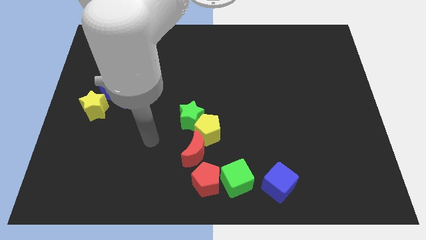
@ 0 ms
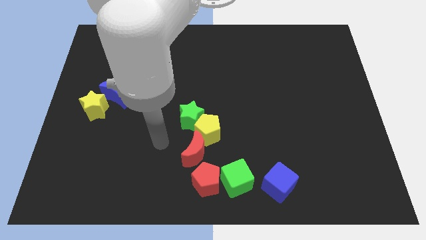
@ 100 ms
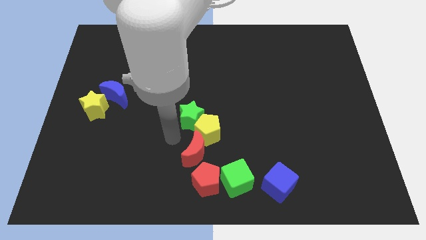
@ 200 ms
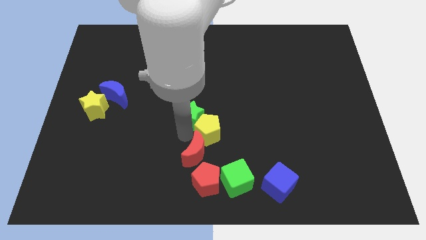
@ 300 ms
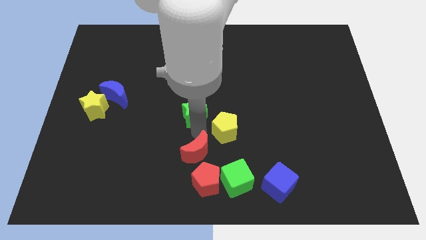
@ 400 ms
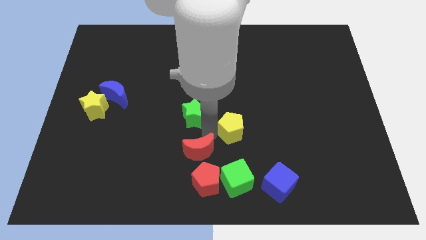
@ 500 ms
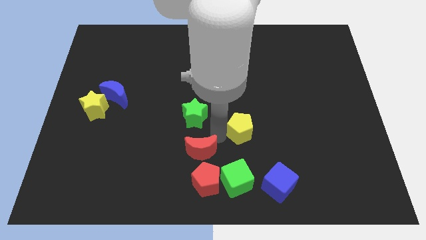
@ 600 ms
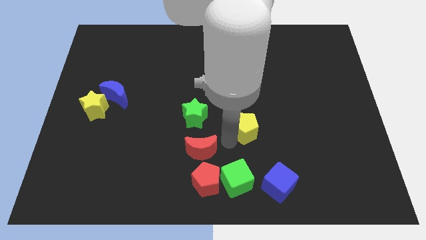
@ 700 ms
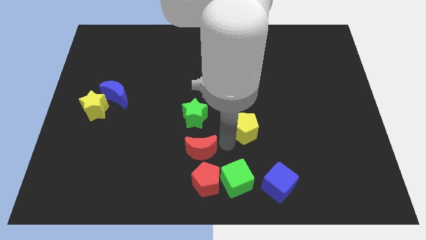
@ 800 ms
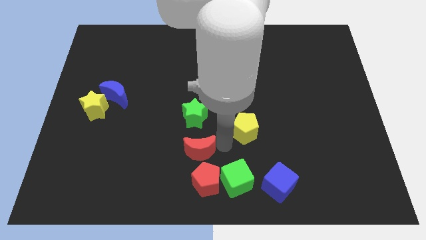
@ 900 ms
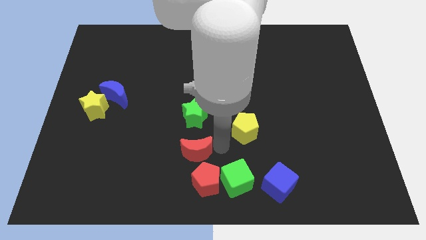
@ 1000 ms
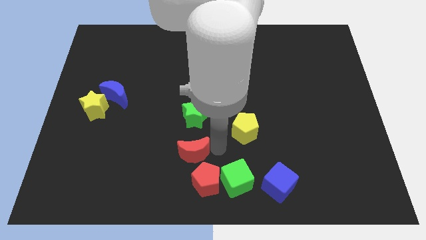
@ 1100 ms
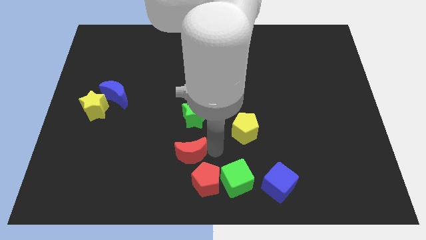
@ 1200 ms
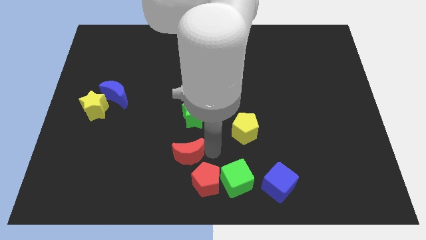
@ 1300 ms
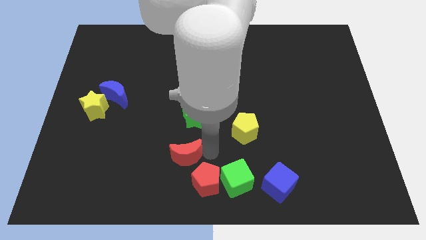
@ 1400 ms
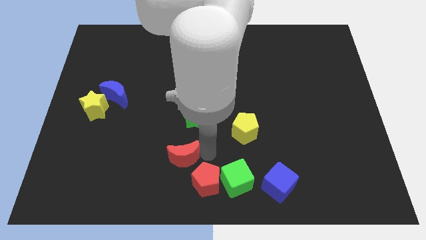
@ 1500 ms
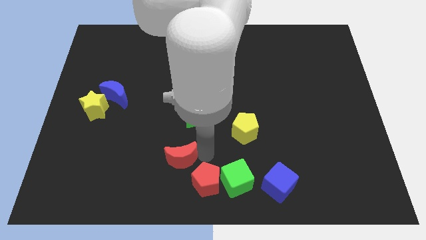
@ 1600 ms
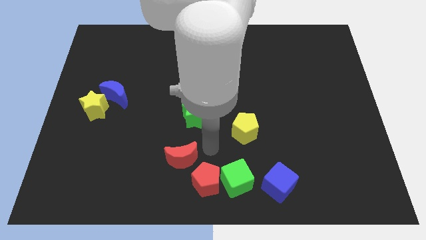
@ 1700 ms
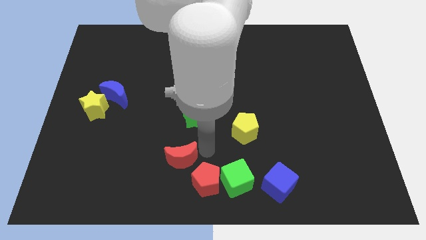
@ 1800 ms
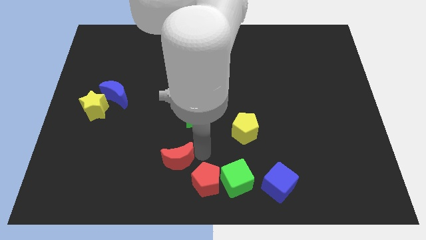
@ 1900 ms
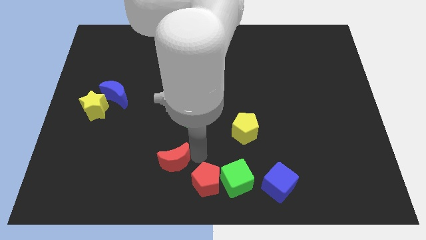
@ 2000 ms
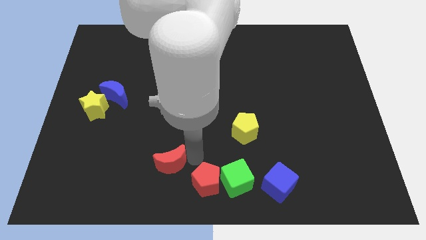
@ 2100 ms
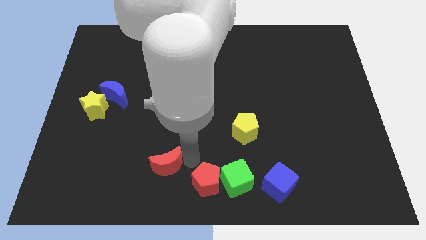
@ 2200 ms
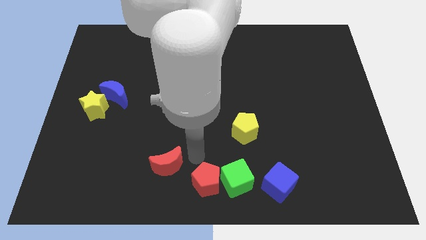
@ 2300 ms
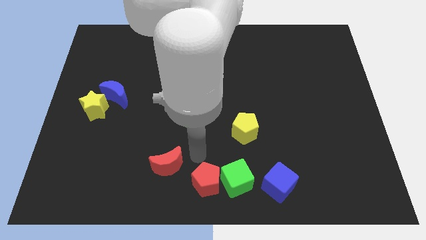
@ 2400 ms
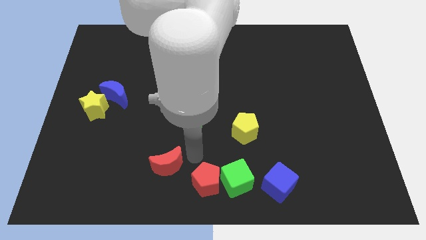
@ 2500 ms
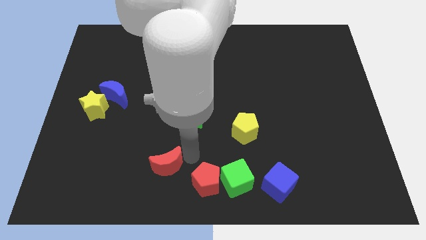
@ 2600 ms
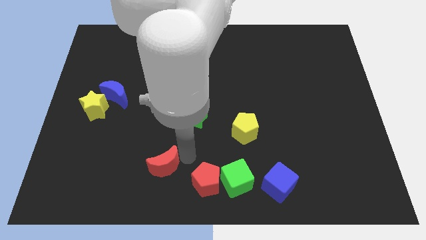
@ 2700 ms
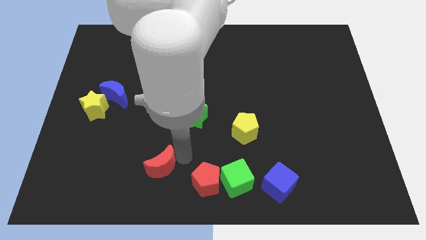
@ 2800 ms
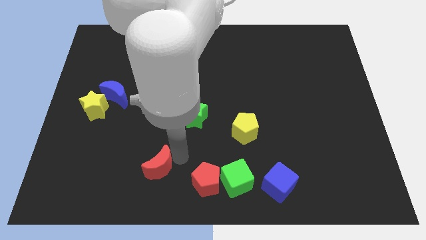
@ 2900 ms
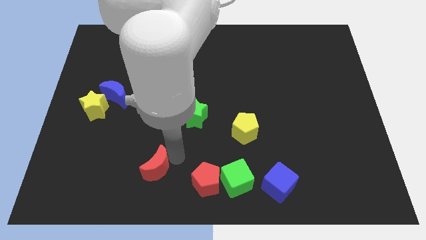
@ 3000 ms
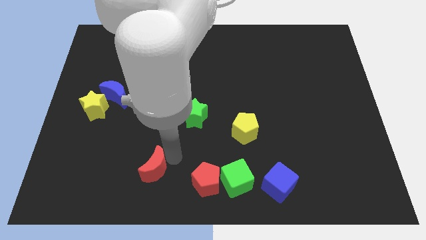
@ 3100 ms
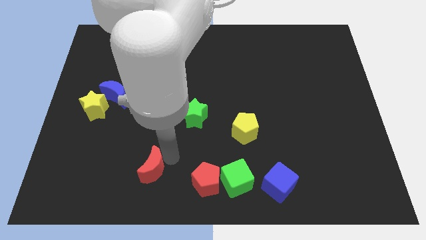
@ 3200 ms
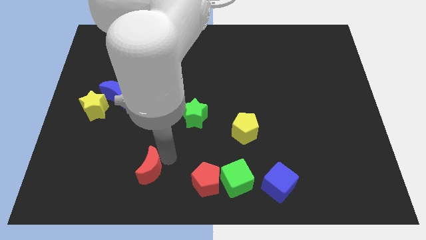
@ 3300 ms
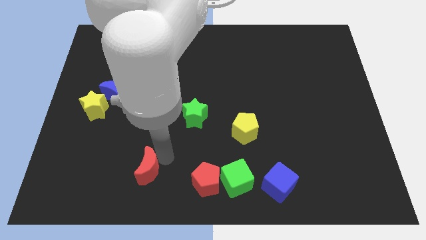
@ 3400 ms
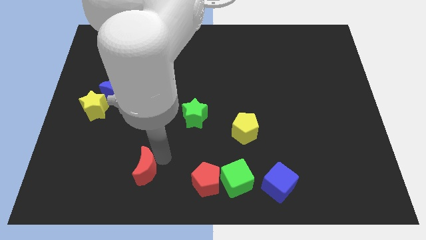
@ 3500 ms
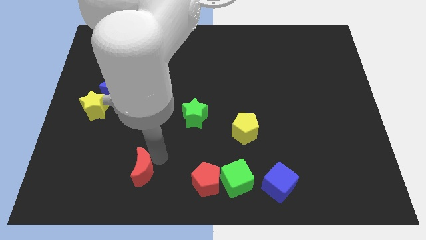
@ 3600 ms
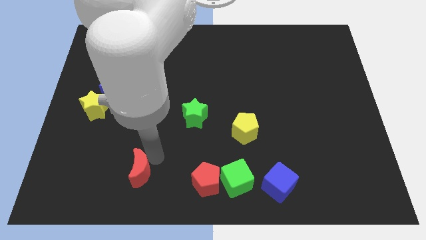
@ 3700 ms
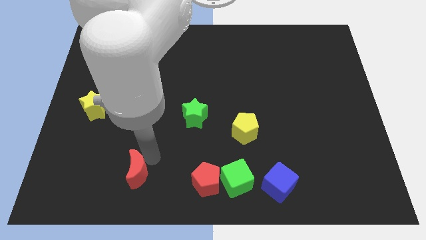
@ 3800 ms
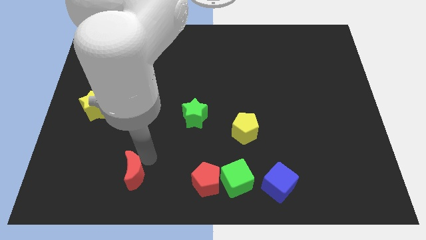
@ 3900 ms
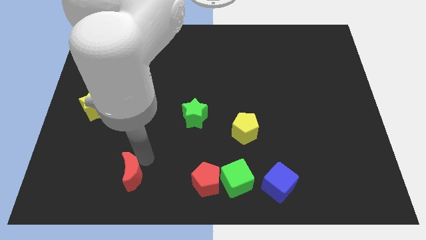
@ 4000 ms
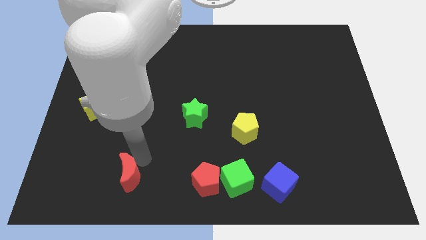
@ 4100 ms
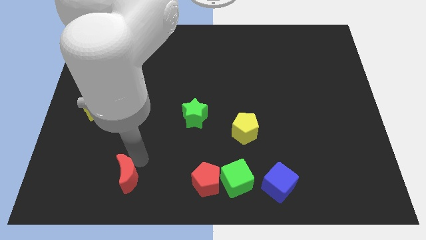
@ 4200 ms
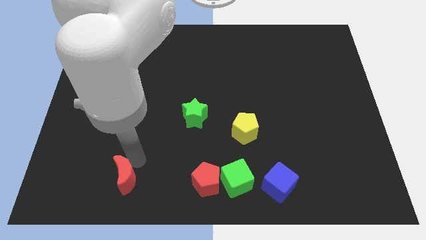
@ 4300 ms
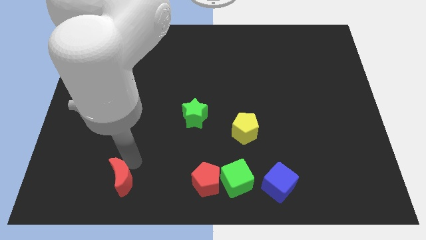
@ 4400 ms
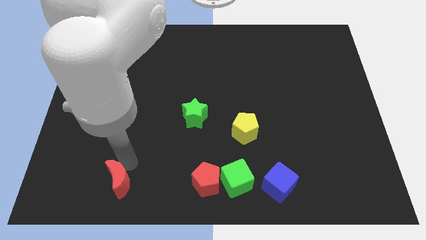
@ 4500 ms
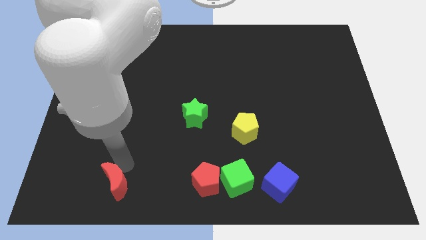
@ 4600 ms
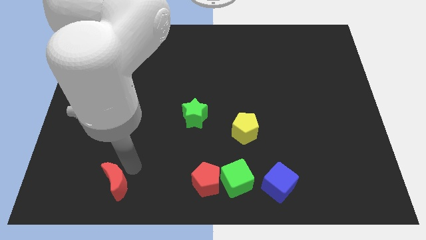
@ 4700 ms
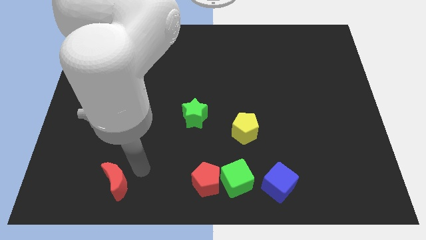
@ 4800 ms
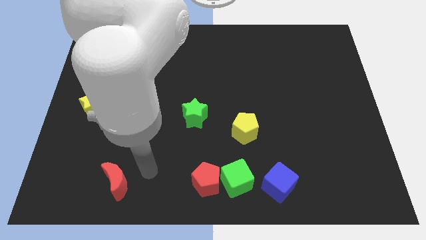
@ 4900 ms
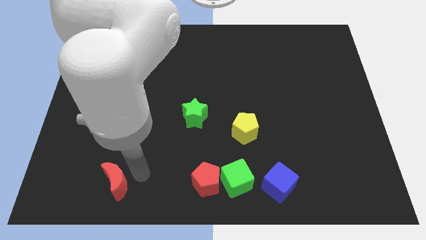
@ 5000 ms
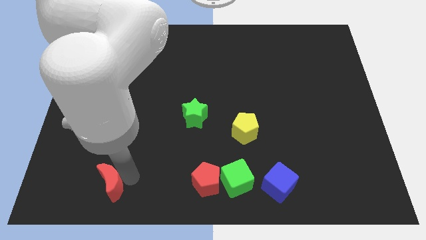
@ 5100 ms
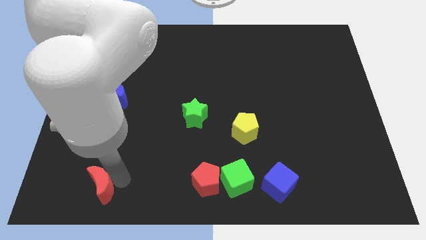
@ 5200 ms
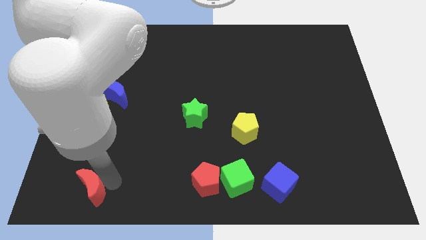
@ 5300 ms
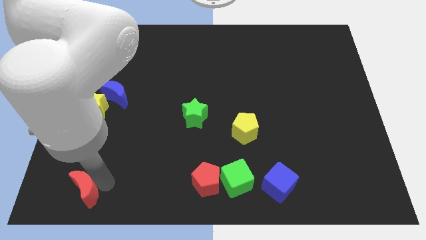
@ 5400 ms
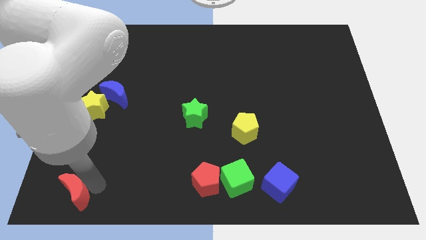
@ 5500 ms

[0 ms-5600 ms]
put the red moon to the bottom left of the board

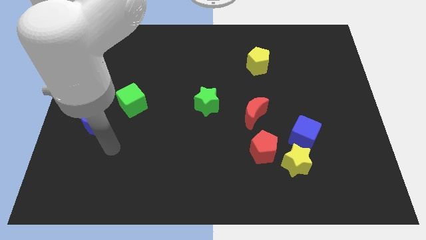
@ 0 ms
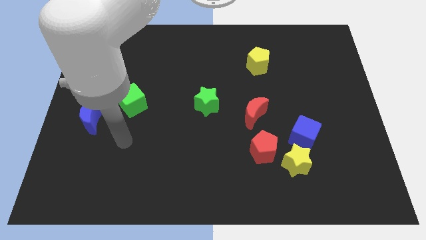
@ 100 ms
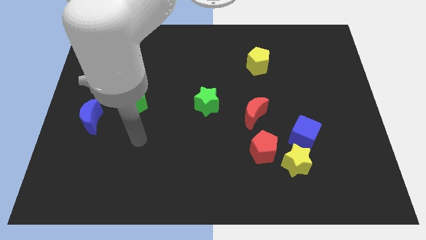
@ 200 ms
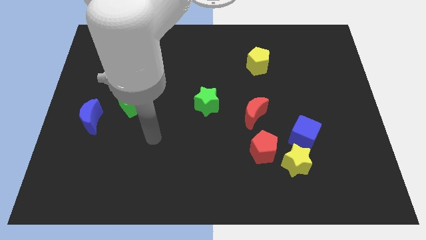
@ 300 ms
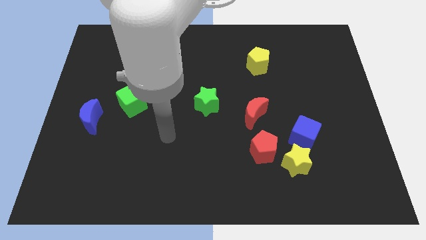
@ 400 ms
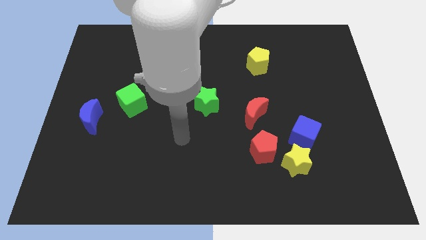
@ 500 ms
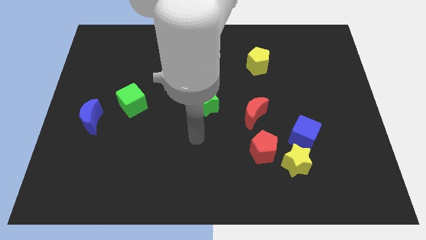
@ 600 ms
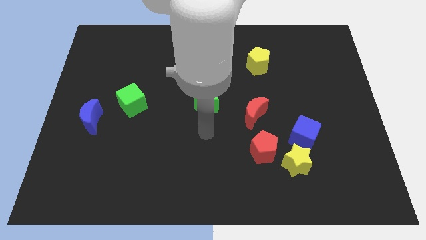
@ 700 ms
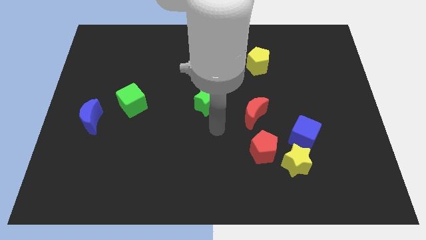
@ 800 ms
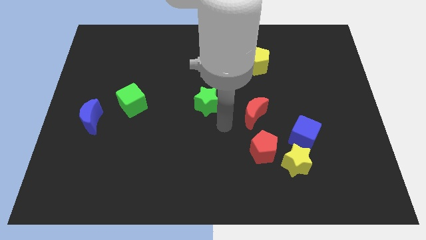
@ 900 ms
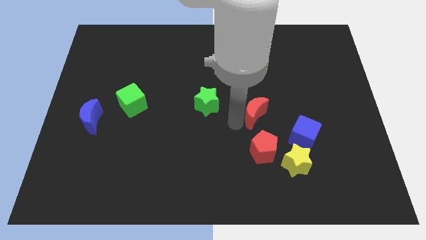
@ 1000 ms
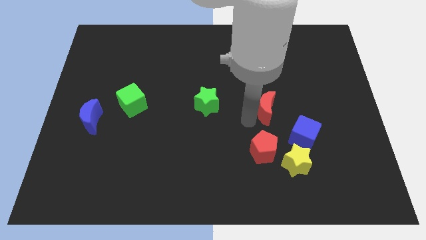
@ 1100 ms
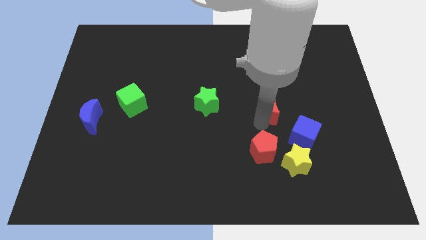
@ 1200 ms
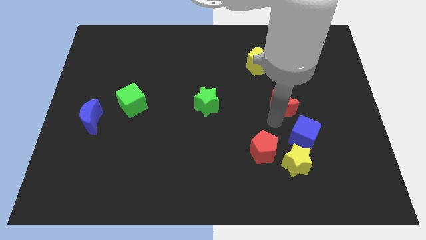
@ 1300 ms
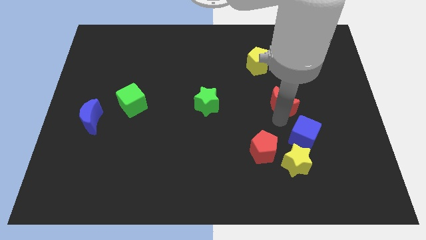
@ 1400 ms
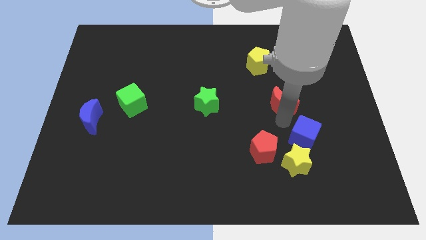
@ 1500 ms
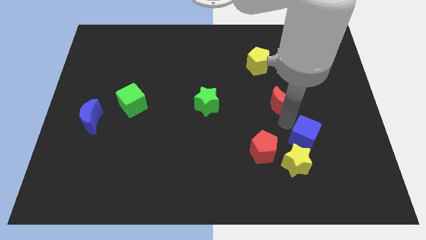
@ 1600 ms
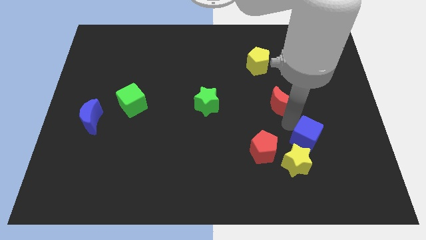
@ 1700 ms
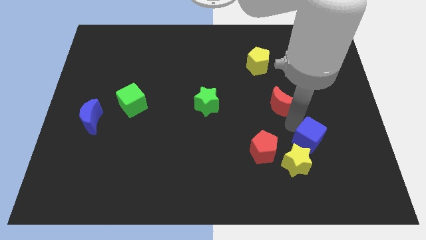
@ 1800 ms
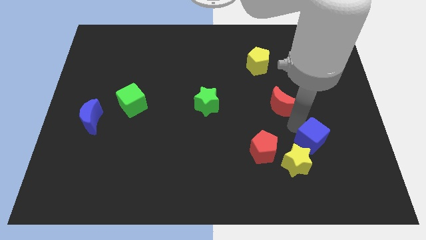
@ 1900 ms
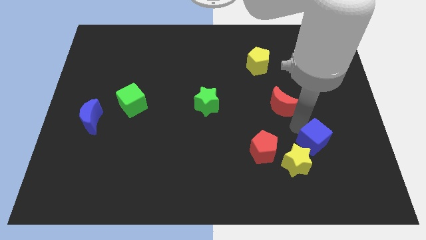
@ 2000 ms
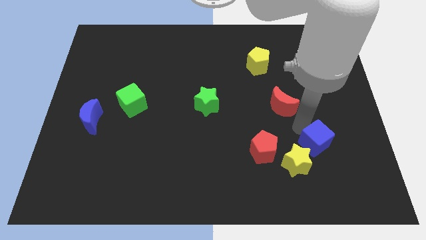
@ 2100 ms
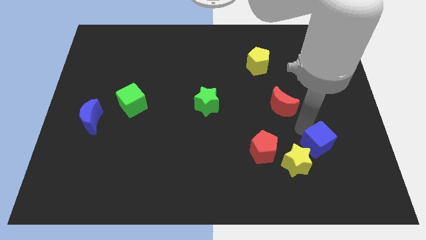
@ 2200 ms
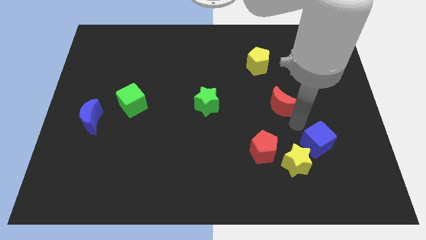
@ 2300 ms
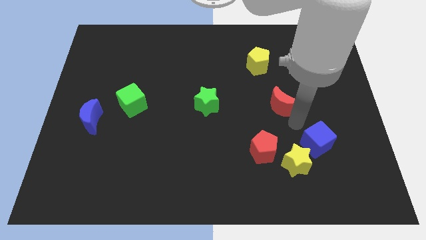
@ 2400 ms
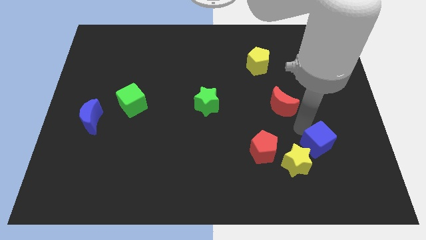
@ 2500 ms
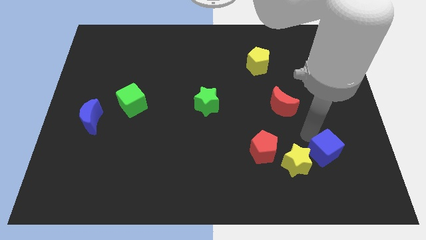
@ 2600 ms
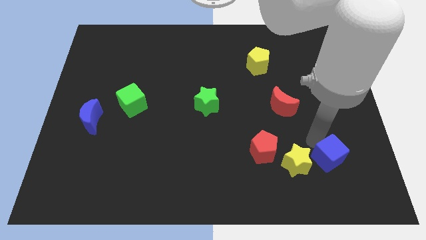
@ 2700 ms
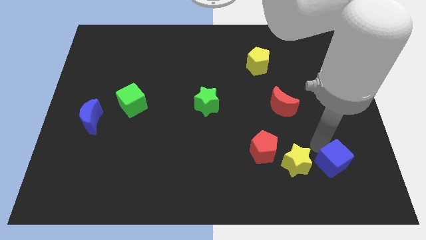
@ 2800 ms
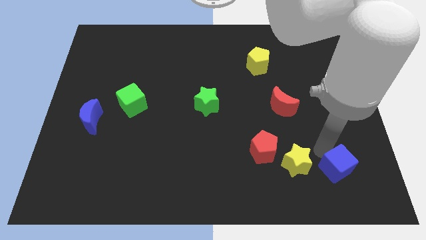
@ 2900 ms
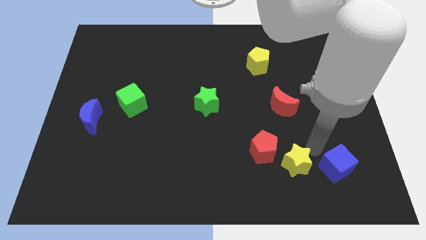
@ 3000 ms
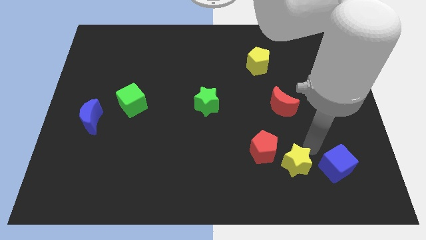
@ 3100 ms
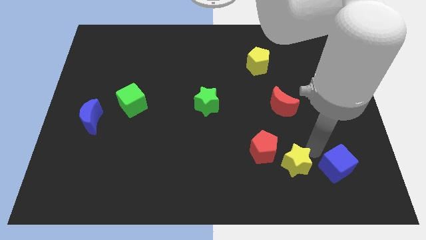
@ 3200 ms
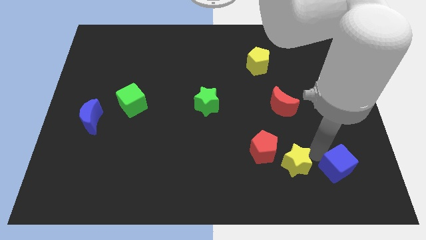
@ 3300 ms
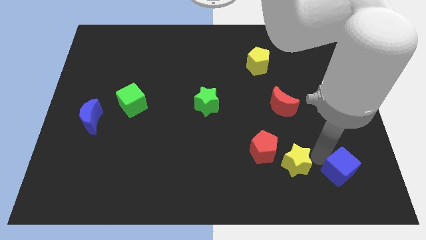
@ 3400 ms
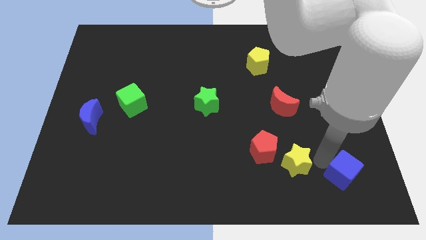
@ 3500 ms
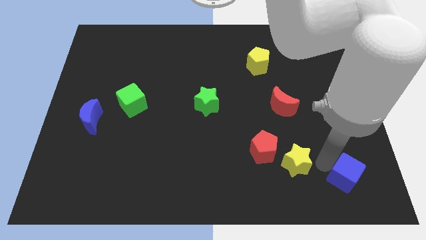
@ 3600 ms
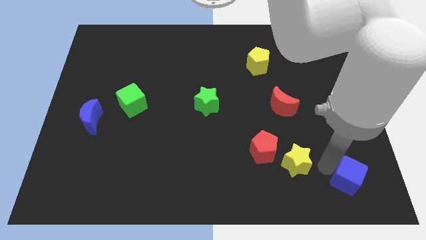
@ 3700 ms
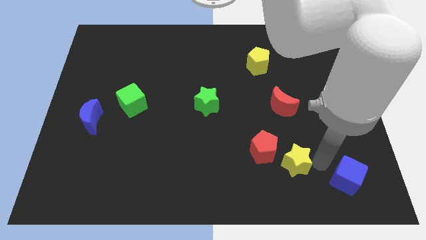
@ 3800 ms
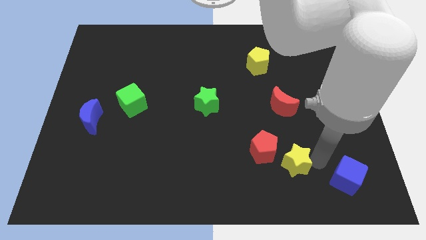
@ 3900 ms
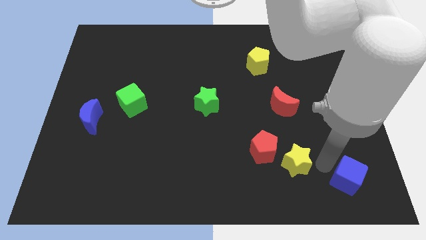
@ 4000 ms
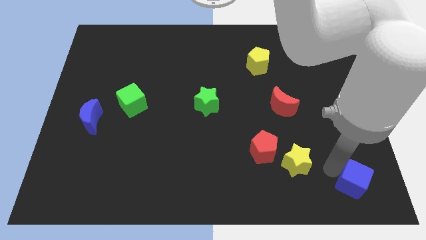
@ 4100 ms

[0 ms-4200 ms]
move the blue cube to the bottom right of the board
